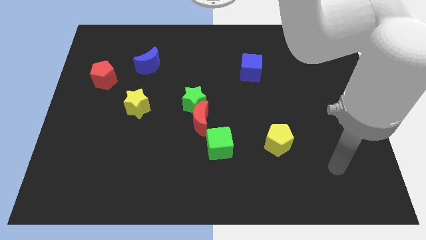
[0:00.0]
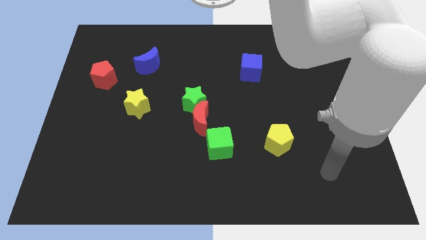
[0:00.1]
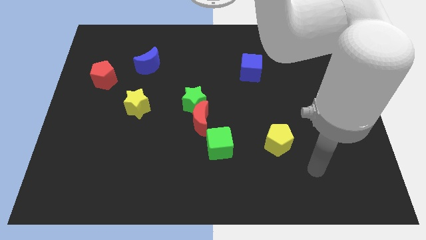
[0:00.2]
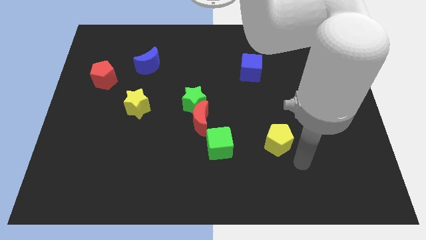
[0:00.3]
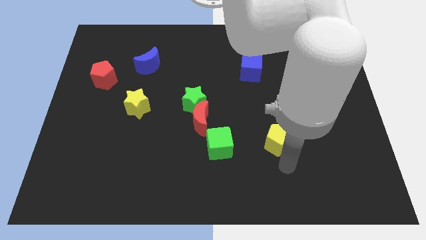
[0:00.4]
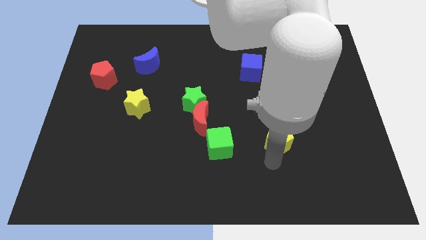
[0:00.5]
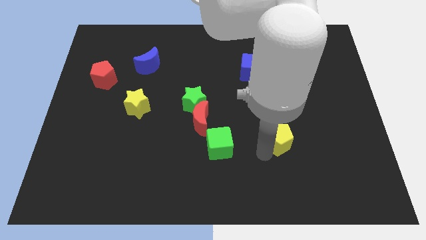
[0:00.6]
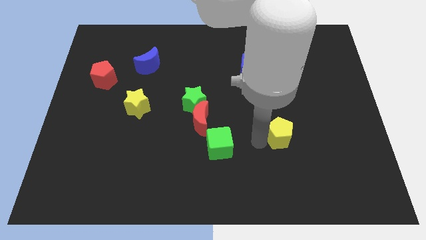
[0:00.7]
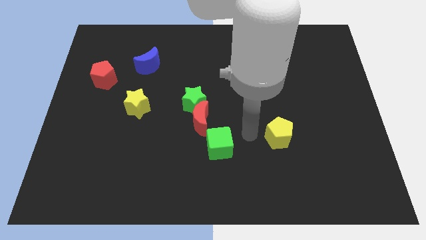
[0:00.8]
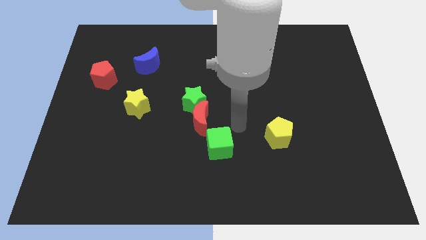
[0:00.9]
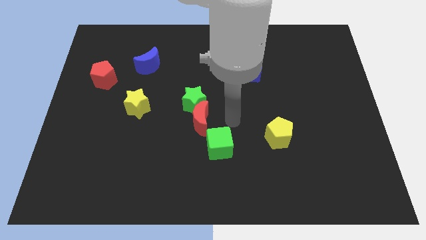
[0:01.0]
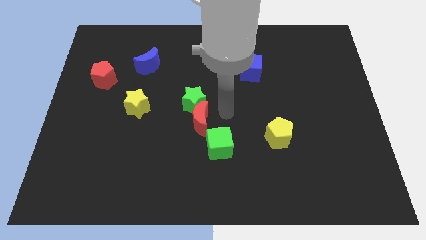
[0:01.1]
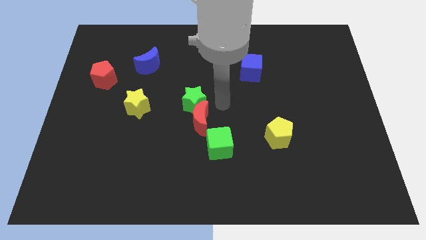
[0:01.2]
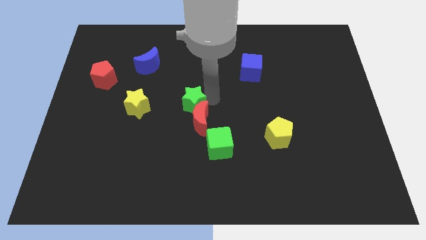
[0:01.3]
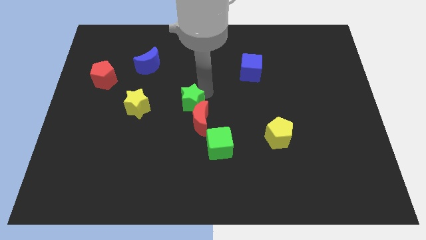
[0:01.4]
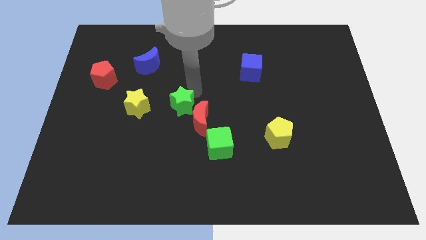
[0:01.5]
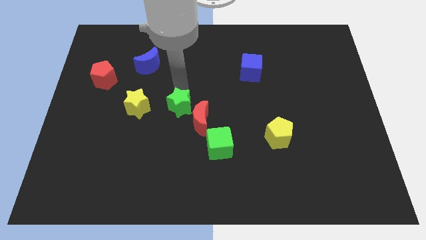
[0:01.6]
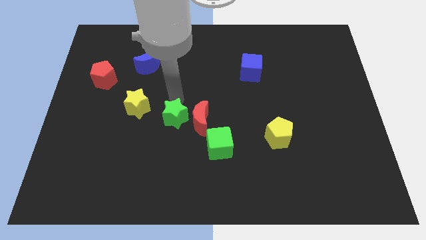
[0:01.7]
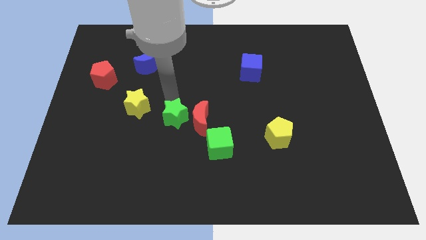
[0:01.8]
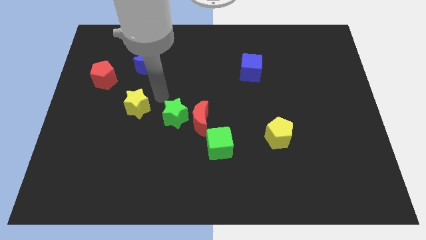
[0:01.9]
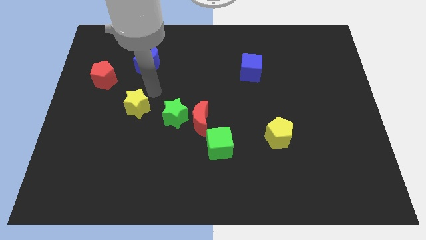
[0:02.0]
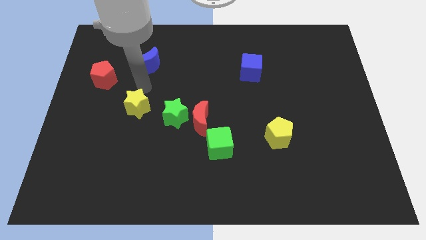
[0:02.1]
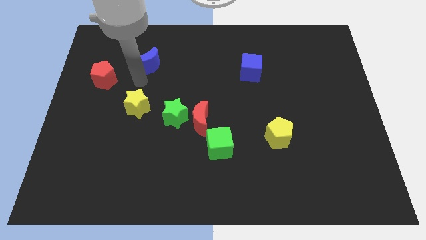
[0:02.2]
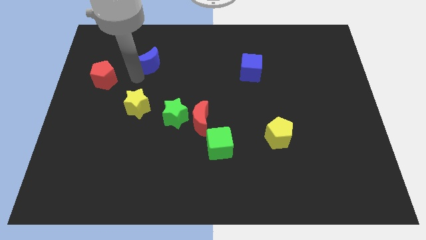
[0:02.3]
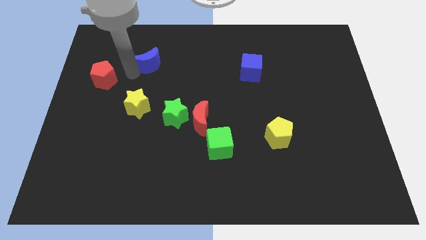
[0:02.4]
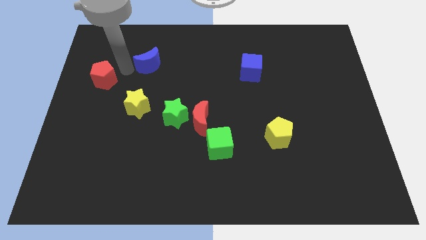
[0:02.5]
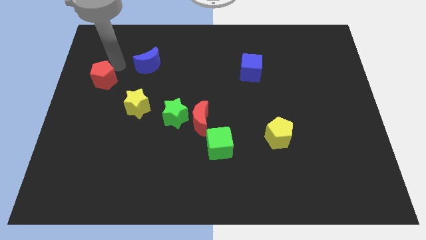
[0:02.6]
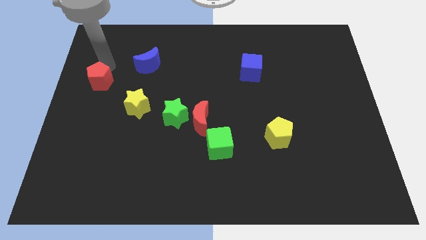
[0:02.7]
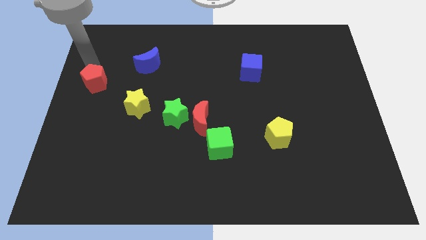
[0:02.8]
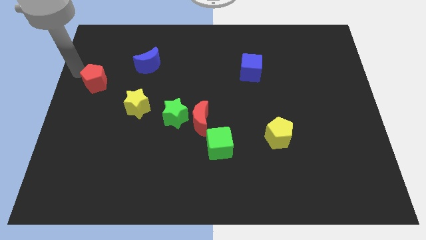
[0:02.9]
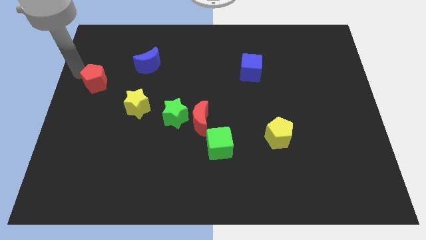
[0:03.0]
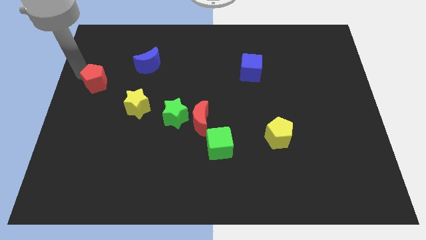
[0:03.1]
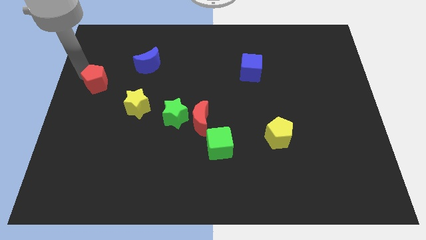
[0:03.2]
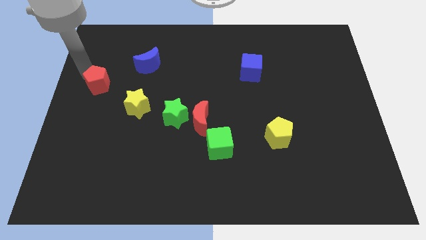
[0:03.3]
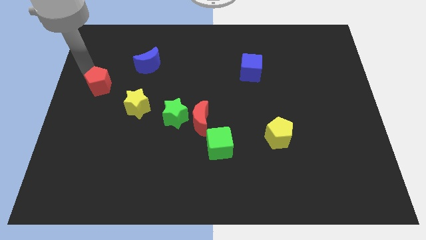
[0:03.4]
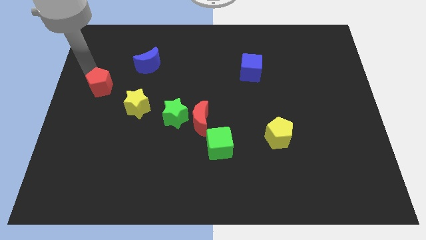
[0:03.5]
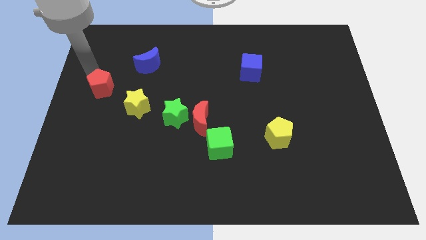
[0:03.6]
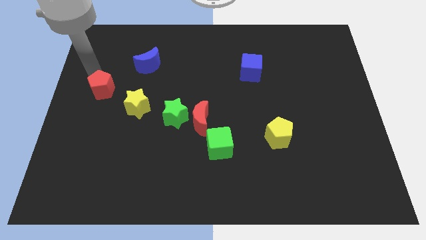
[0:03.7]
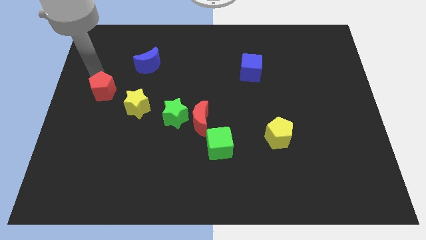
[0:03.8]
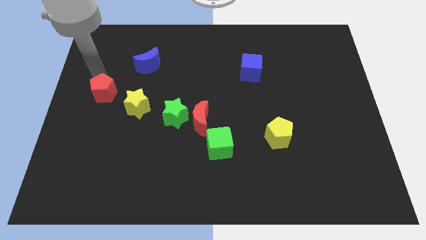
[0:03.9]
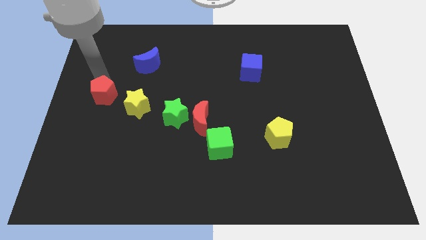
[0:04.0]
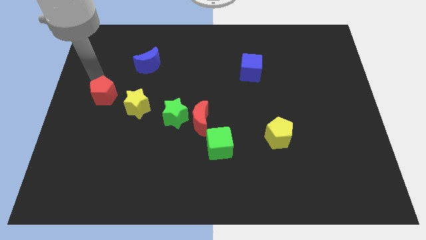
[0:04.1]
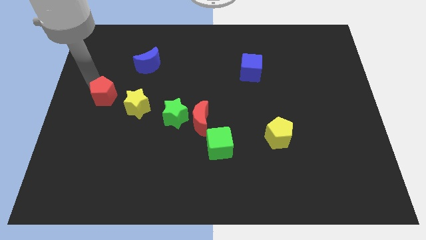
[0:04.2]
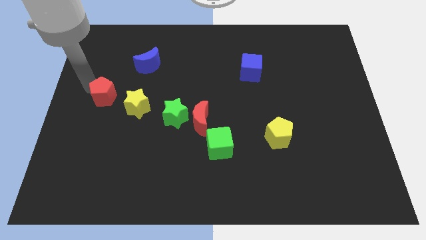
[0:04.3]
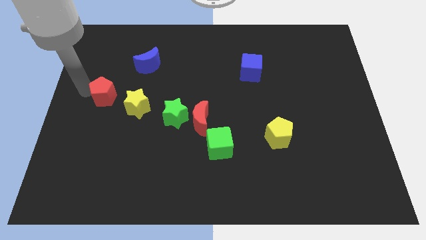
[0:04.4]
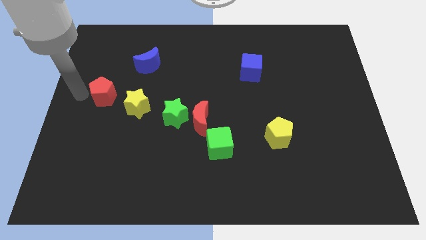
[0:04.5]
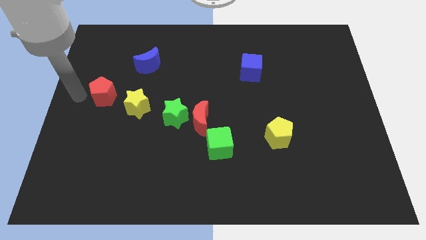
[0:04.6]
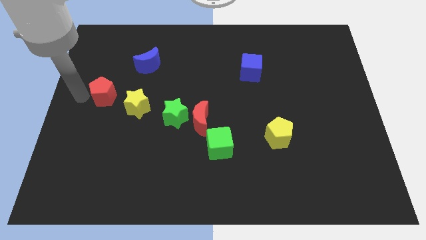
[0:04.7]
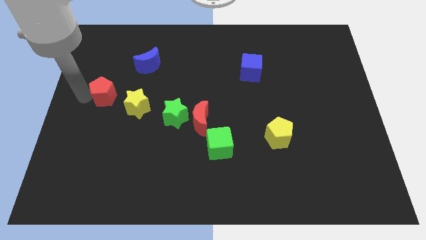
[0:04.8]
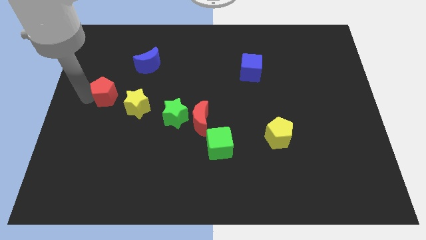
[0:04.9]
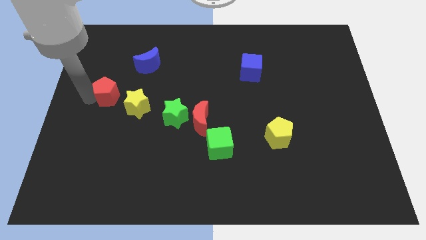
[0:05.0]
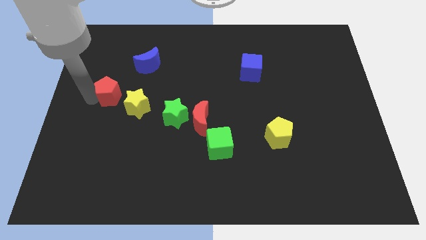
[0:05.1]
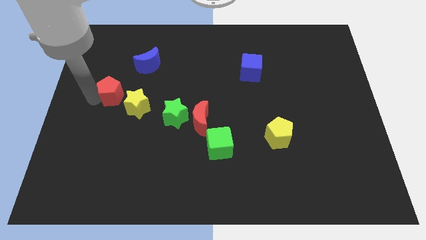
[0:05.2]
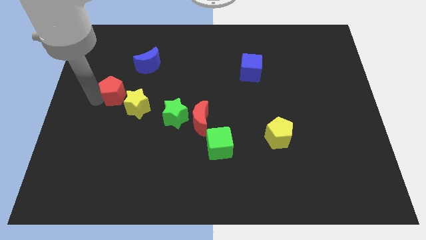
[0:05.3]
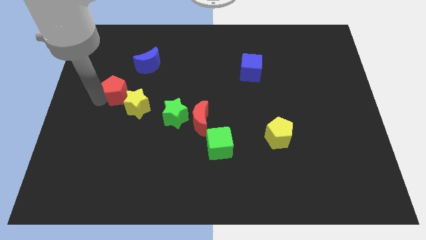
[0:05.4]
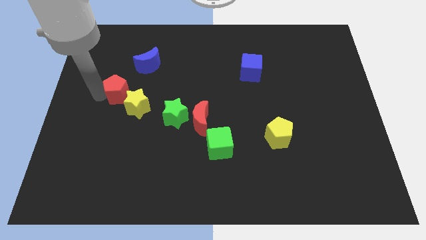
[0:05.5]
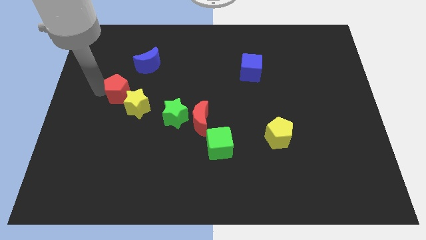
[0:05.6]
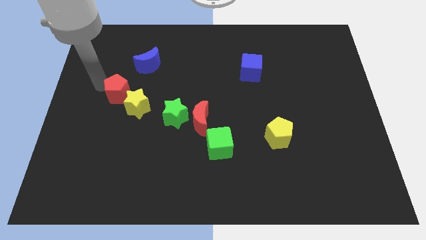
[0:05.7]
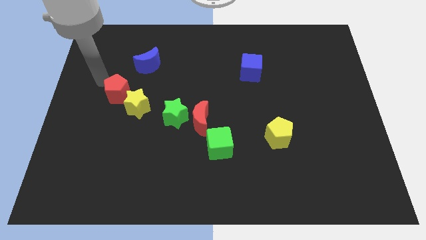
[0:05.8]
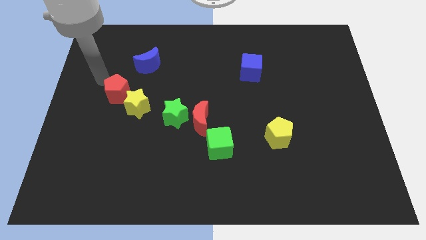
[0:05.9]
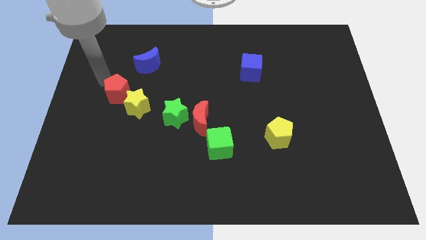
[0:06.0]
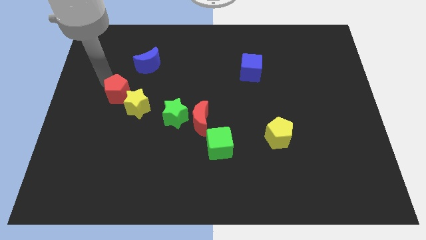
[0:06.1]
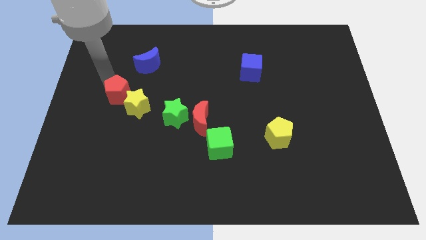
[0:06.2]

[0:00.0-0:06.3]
push the red pentagon close to the yellow star

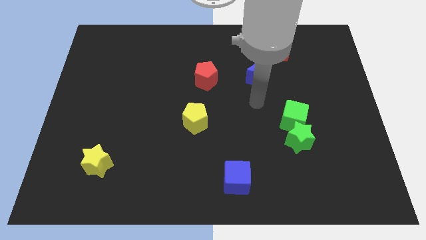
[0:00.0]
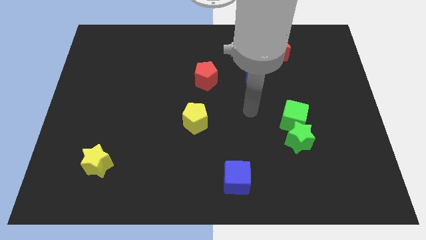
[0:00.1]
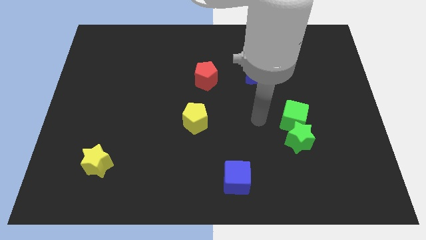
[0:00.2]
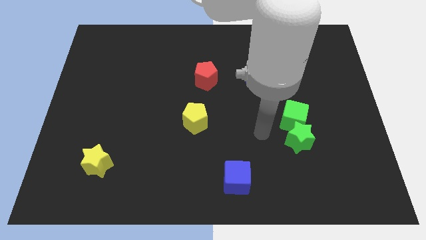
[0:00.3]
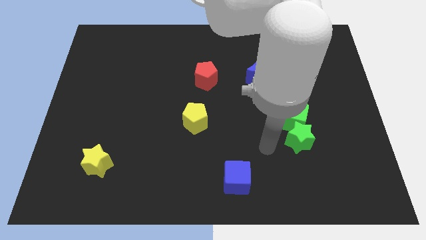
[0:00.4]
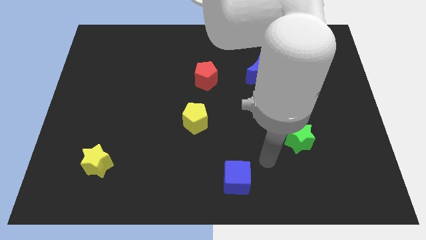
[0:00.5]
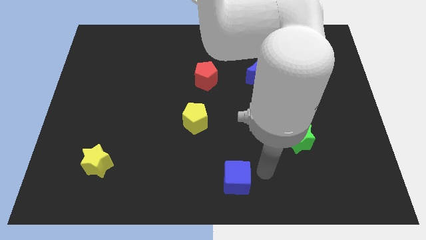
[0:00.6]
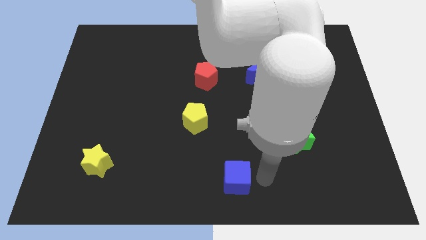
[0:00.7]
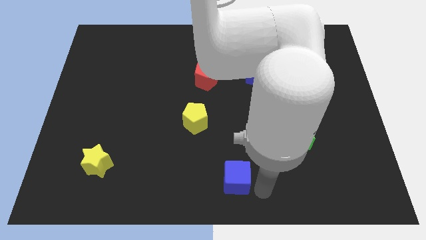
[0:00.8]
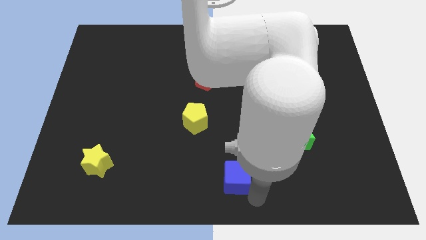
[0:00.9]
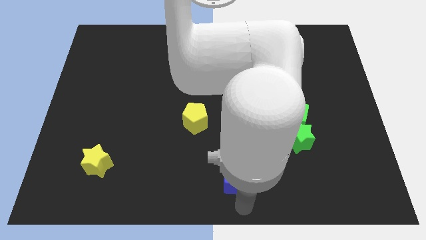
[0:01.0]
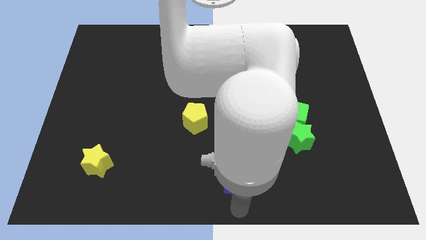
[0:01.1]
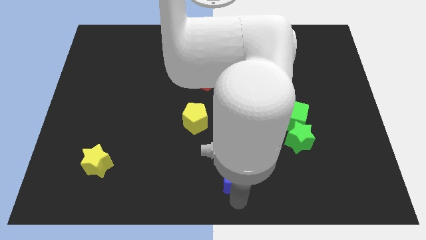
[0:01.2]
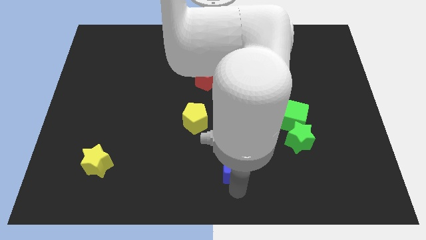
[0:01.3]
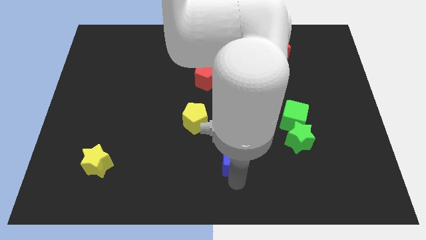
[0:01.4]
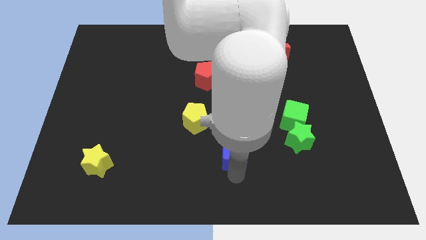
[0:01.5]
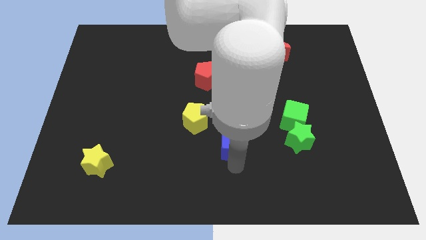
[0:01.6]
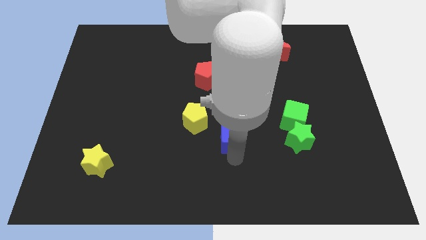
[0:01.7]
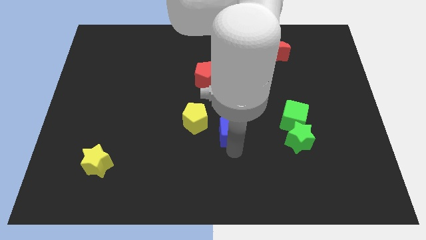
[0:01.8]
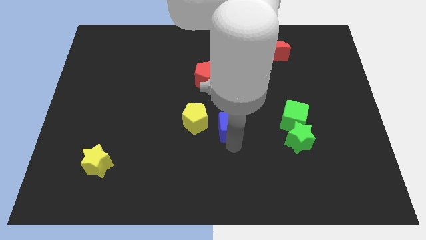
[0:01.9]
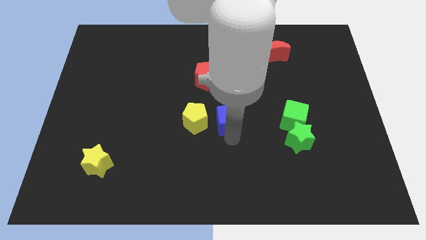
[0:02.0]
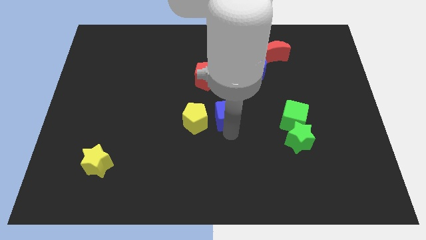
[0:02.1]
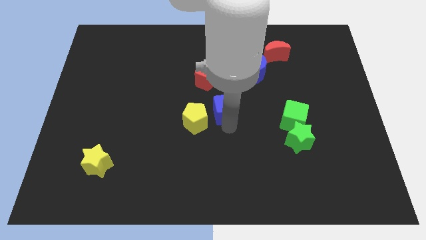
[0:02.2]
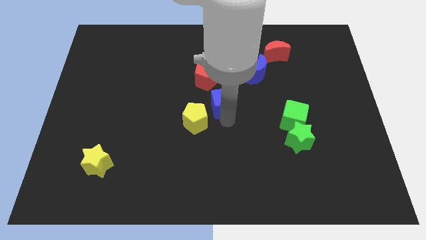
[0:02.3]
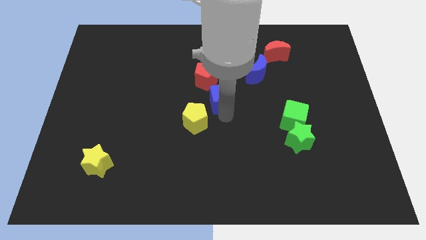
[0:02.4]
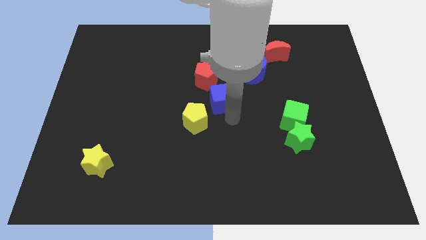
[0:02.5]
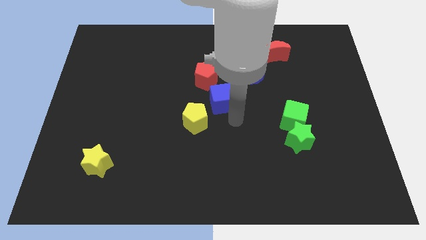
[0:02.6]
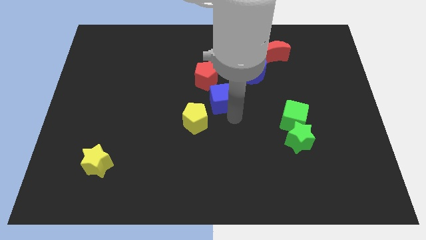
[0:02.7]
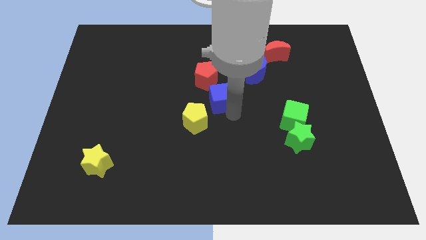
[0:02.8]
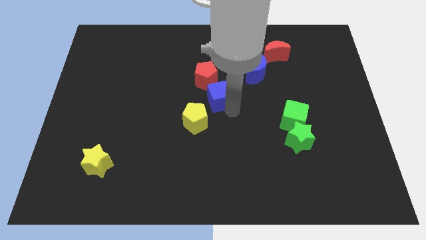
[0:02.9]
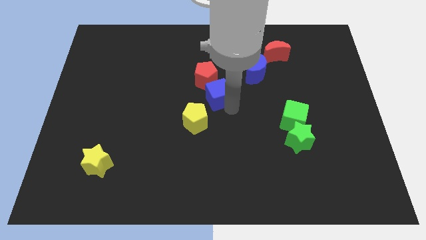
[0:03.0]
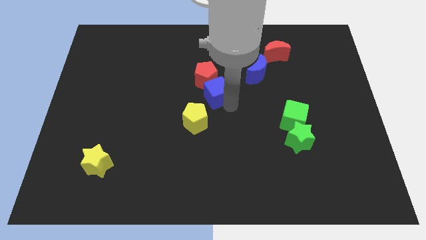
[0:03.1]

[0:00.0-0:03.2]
slide the blue cube towards the red pentagon
